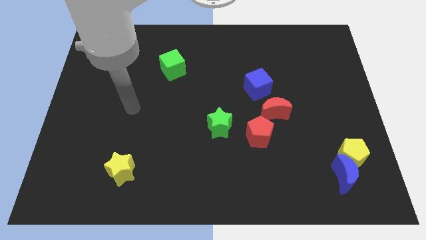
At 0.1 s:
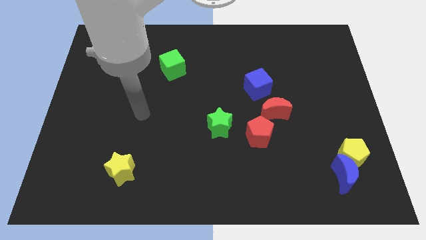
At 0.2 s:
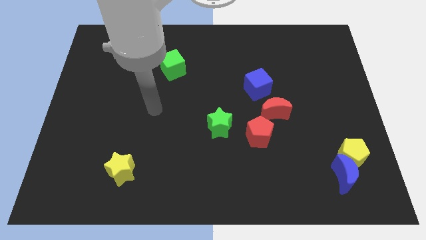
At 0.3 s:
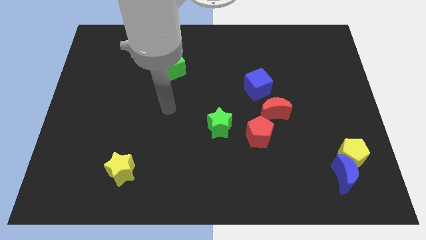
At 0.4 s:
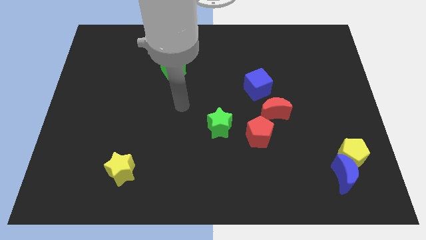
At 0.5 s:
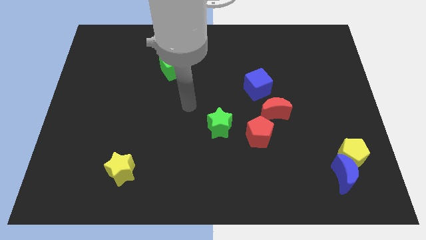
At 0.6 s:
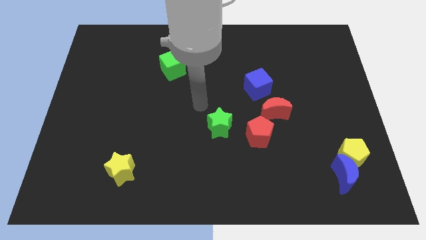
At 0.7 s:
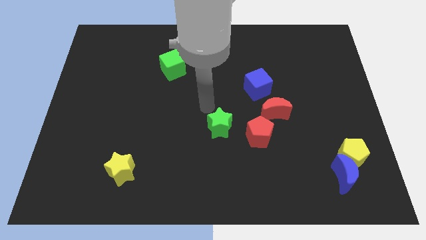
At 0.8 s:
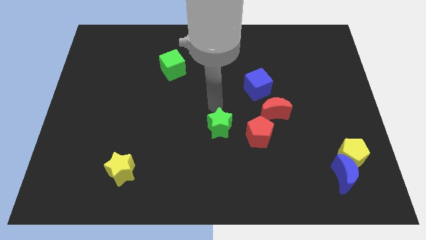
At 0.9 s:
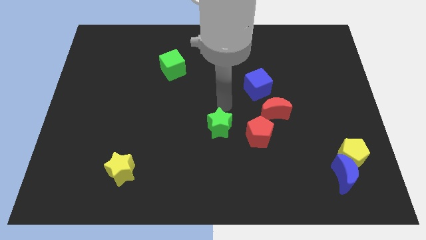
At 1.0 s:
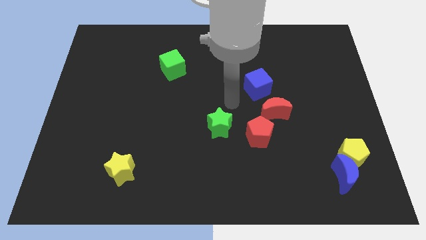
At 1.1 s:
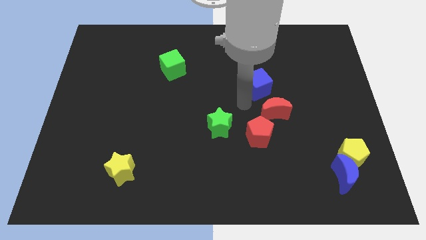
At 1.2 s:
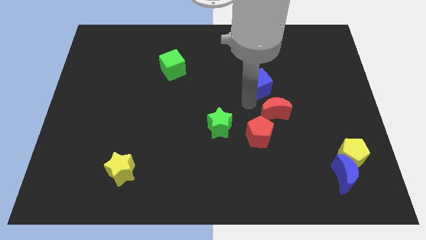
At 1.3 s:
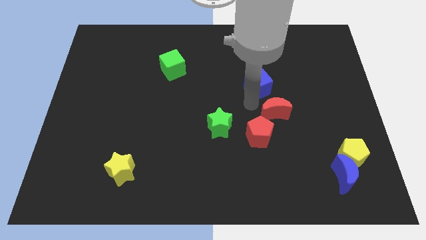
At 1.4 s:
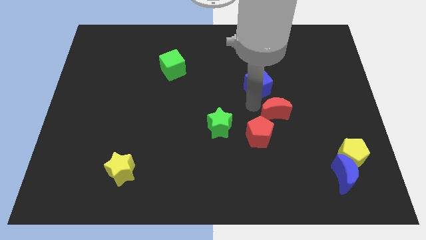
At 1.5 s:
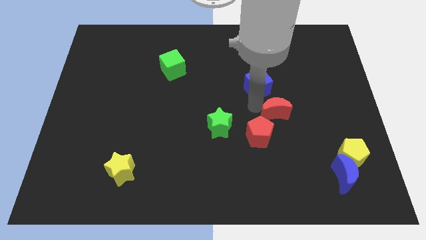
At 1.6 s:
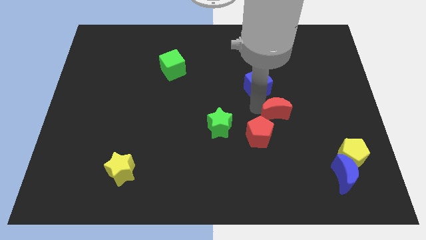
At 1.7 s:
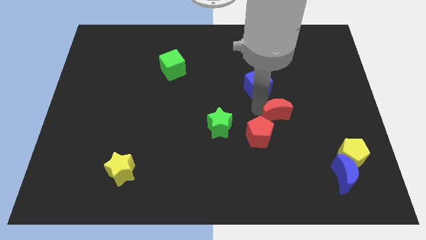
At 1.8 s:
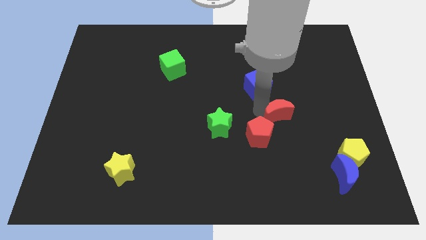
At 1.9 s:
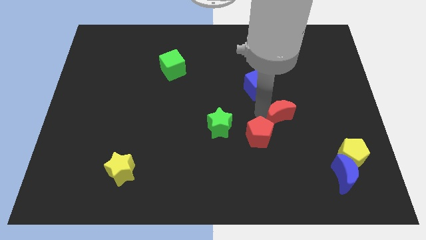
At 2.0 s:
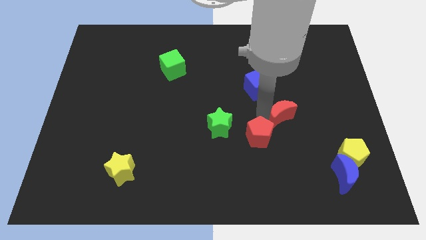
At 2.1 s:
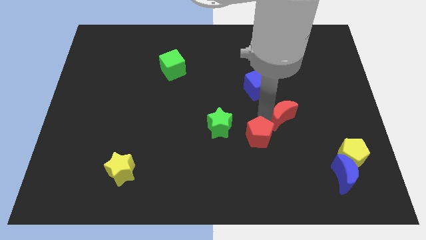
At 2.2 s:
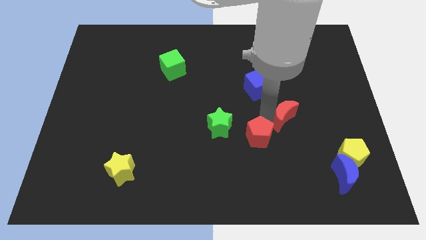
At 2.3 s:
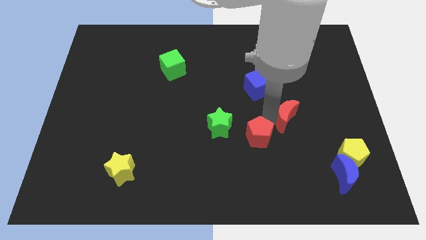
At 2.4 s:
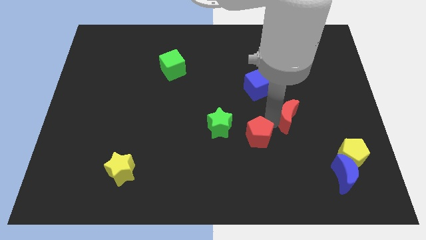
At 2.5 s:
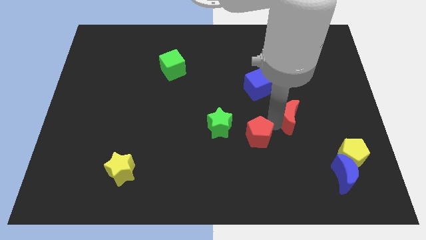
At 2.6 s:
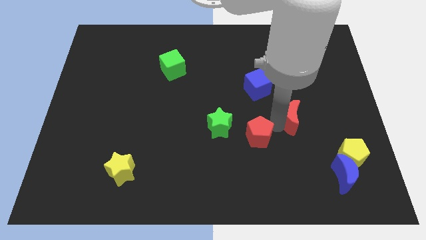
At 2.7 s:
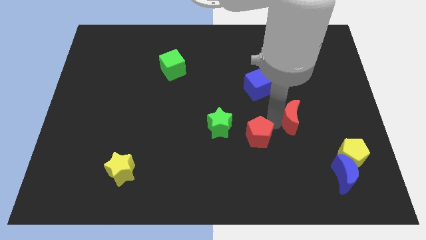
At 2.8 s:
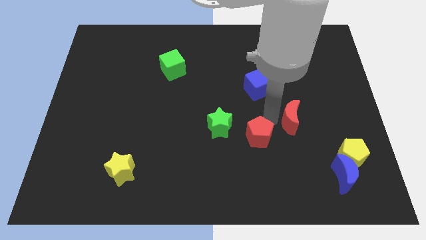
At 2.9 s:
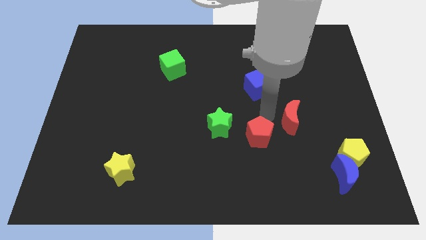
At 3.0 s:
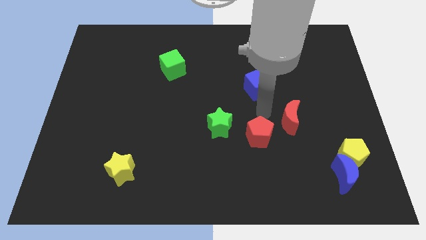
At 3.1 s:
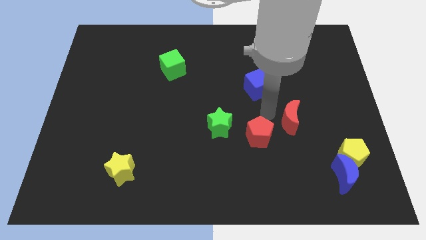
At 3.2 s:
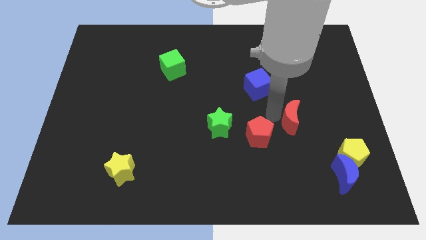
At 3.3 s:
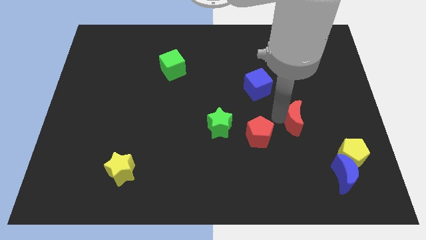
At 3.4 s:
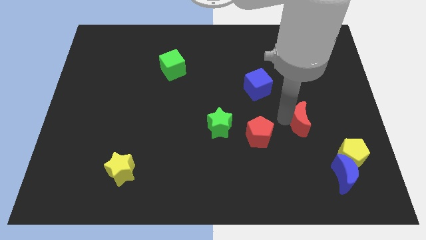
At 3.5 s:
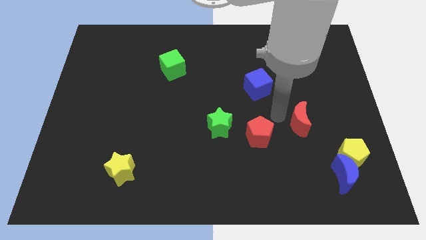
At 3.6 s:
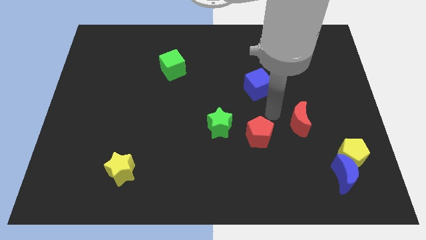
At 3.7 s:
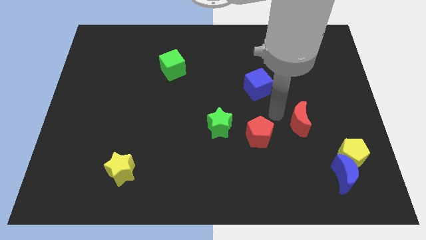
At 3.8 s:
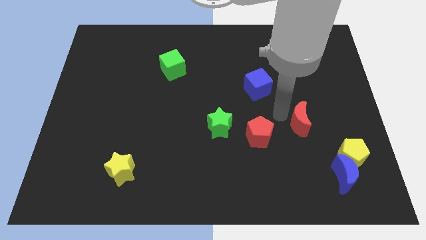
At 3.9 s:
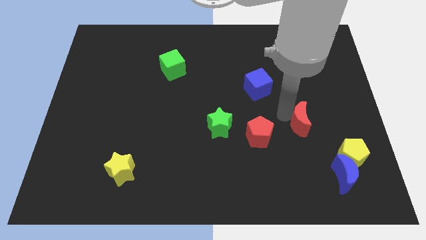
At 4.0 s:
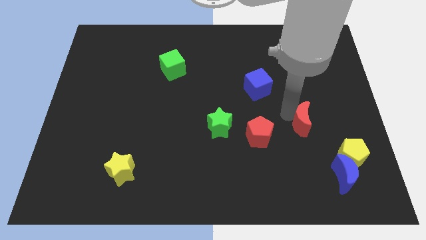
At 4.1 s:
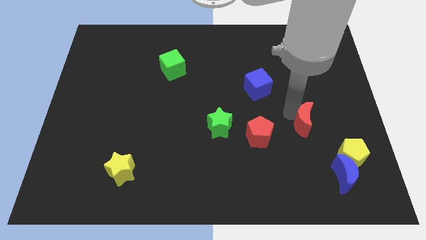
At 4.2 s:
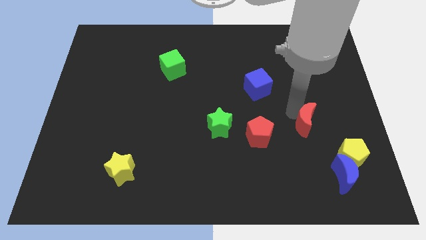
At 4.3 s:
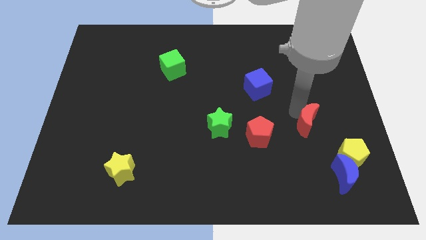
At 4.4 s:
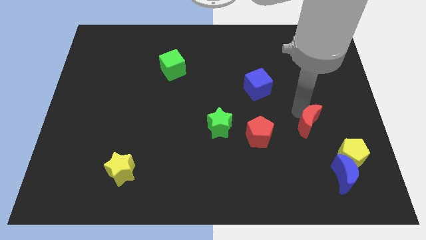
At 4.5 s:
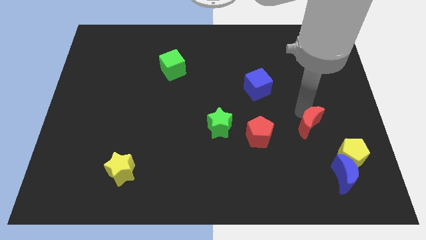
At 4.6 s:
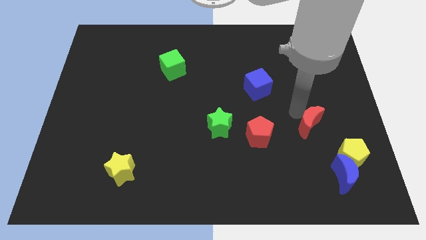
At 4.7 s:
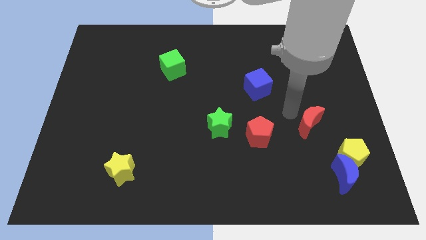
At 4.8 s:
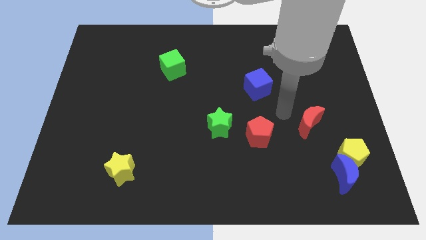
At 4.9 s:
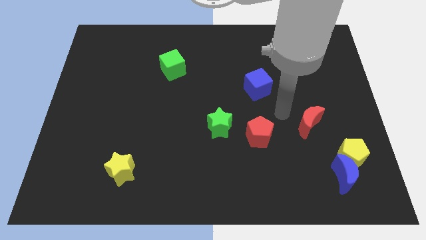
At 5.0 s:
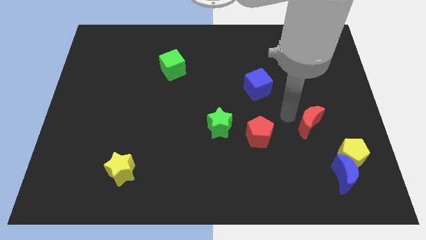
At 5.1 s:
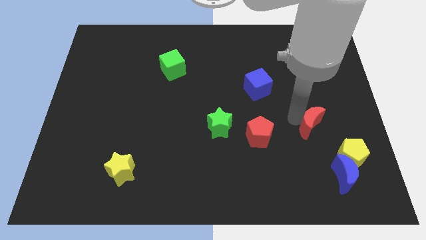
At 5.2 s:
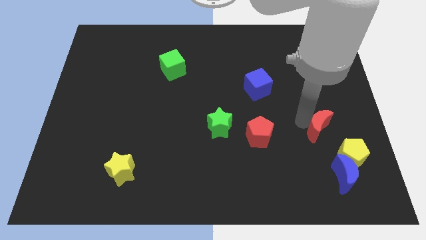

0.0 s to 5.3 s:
move the red moon above the blue moon
